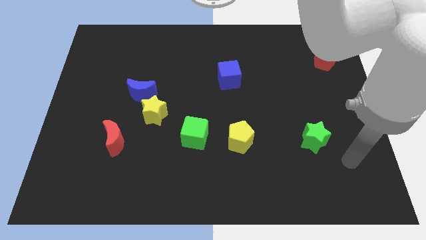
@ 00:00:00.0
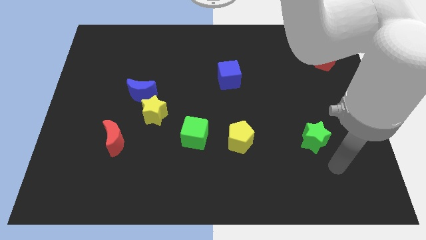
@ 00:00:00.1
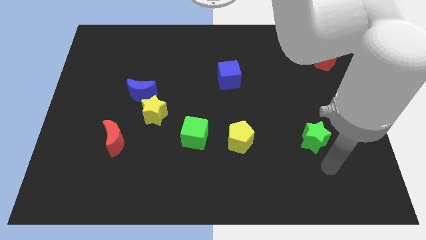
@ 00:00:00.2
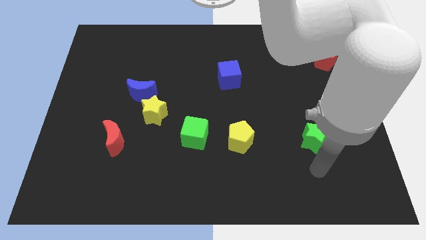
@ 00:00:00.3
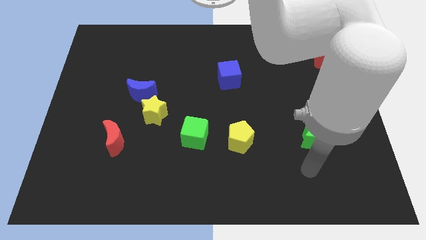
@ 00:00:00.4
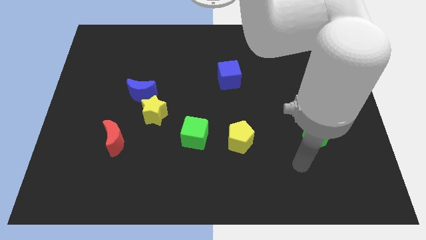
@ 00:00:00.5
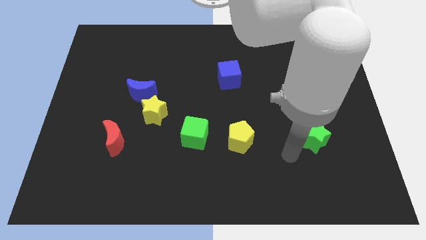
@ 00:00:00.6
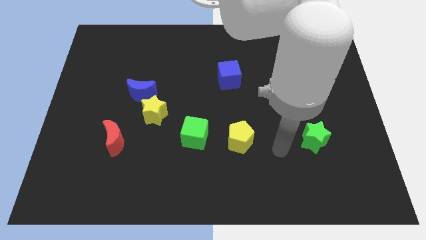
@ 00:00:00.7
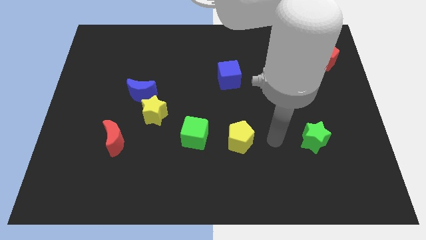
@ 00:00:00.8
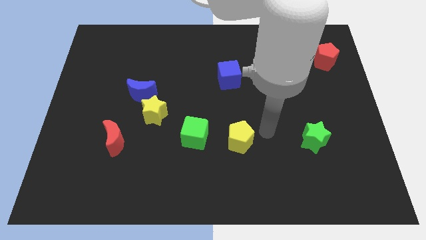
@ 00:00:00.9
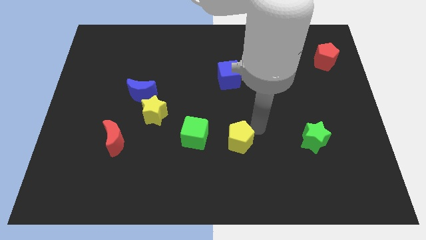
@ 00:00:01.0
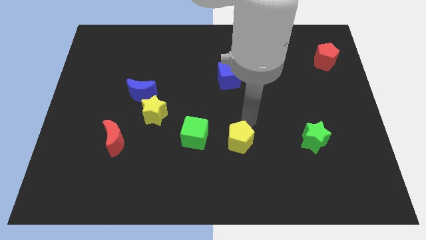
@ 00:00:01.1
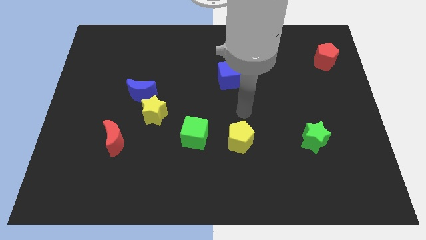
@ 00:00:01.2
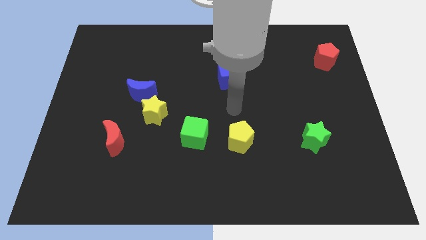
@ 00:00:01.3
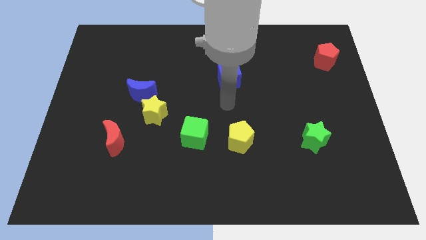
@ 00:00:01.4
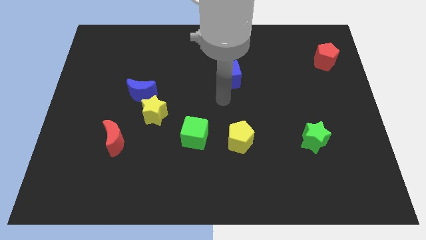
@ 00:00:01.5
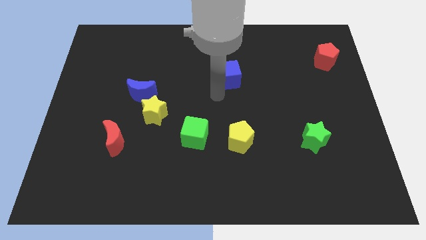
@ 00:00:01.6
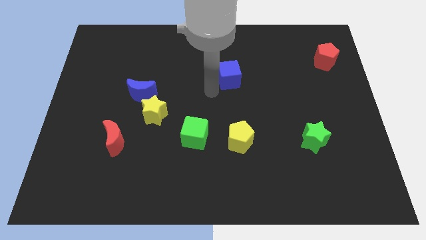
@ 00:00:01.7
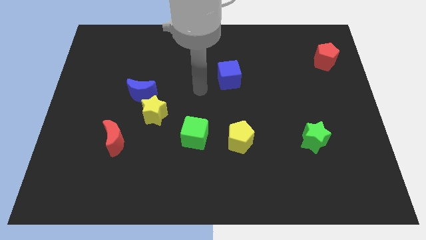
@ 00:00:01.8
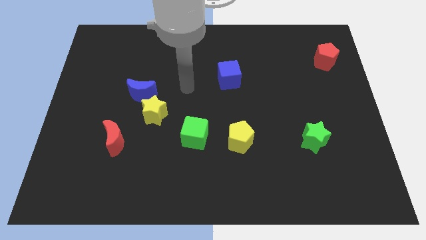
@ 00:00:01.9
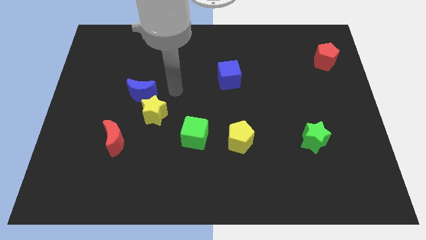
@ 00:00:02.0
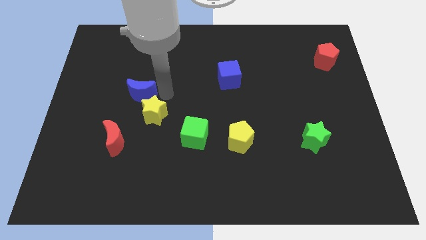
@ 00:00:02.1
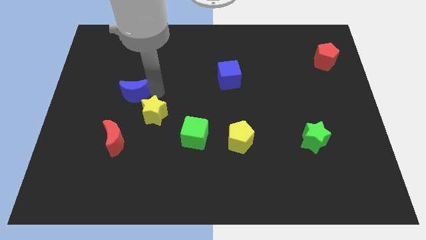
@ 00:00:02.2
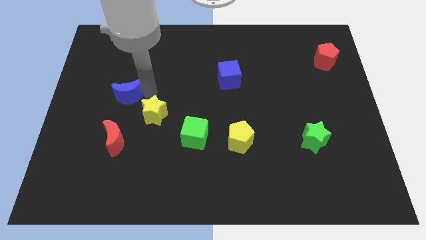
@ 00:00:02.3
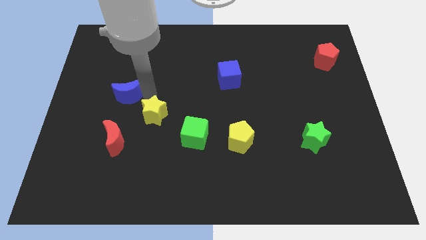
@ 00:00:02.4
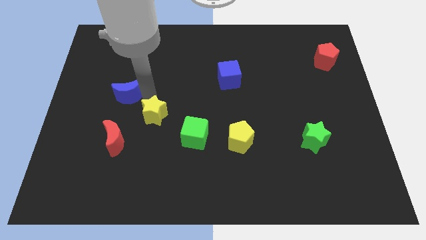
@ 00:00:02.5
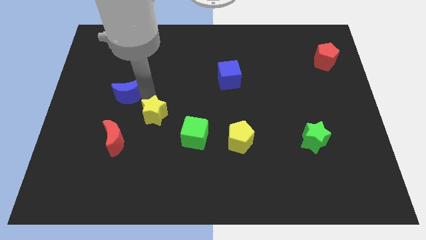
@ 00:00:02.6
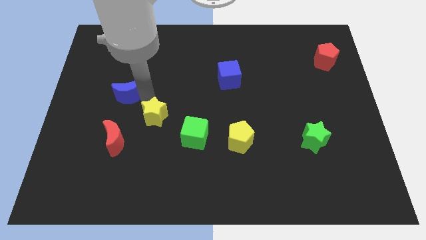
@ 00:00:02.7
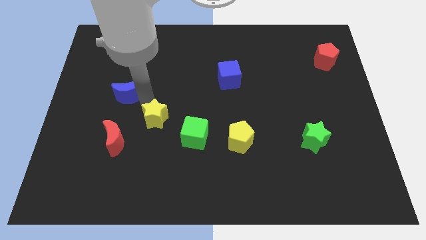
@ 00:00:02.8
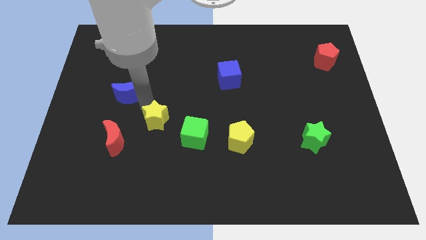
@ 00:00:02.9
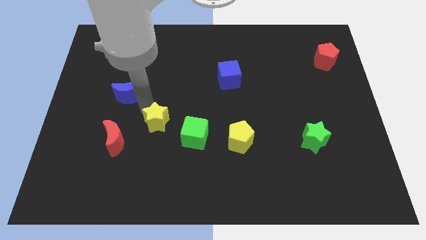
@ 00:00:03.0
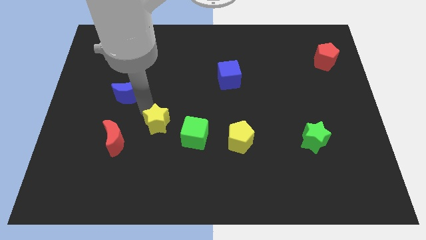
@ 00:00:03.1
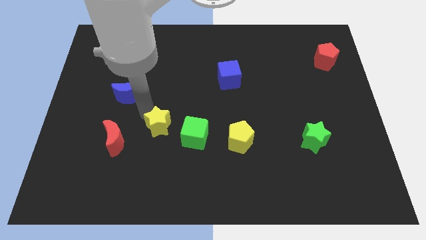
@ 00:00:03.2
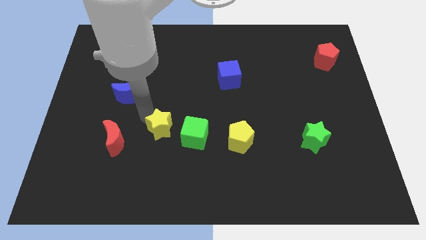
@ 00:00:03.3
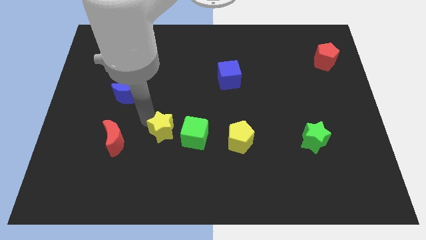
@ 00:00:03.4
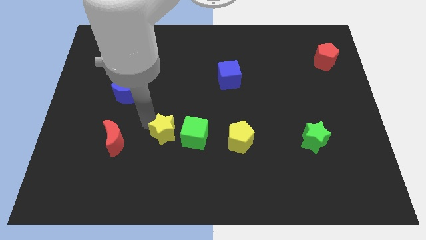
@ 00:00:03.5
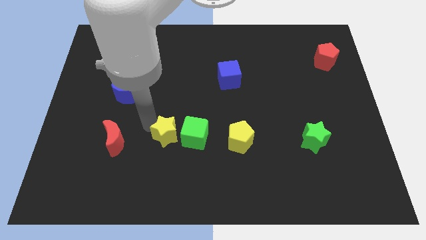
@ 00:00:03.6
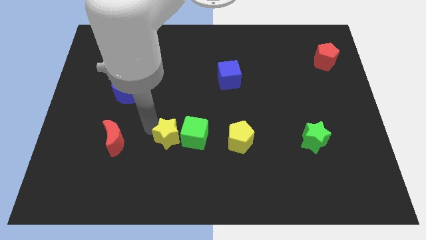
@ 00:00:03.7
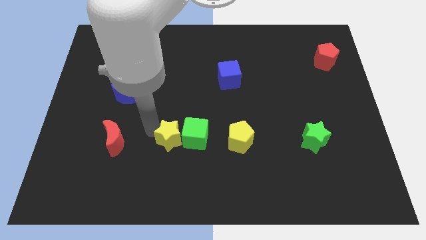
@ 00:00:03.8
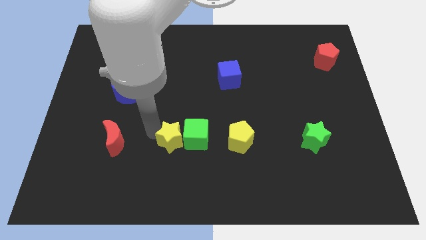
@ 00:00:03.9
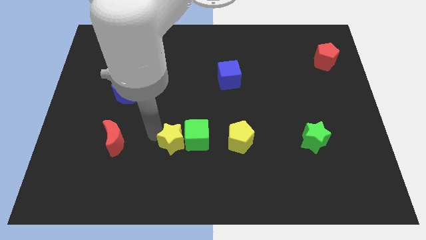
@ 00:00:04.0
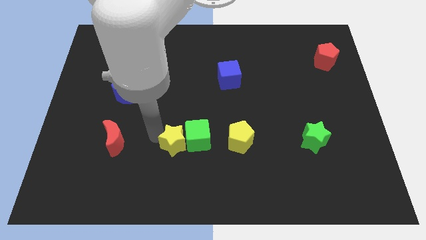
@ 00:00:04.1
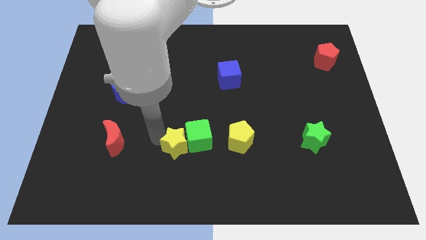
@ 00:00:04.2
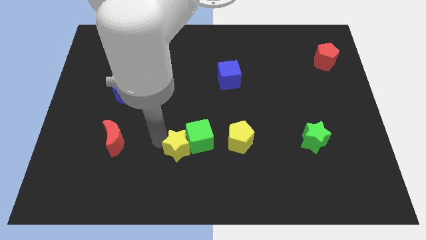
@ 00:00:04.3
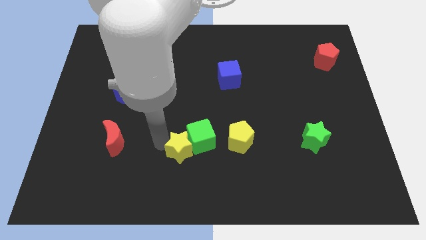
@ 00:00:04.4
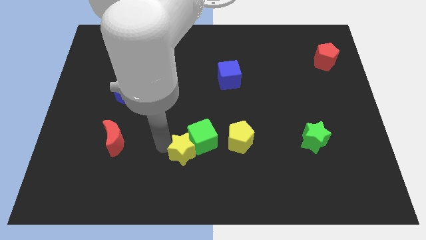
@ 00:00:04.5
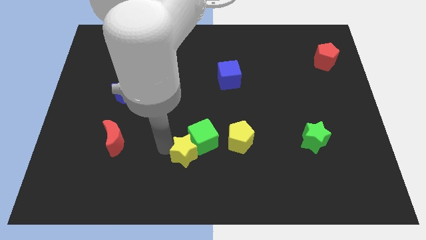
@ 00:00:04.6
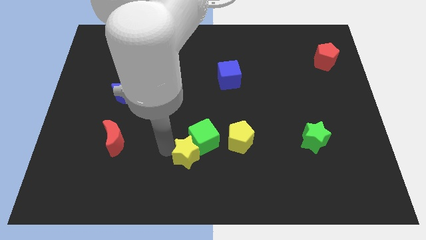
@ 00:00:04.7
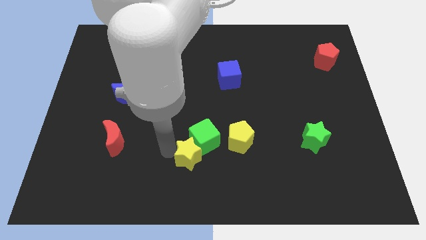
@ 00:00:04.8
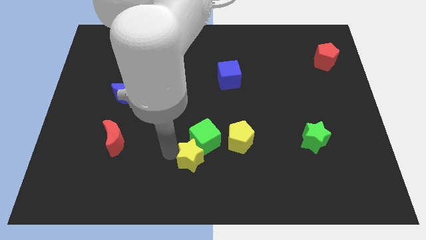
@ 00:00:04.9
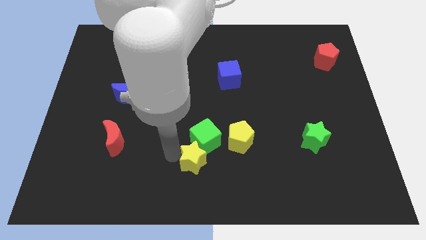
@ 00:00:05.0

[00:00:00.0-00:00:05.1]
slide the yellow star diagonally down and to the left of the yellow pentagon

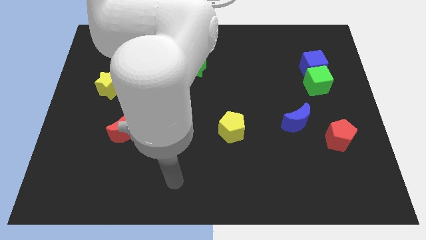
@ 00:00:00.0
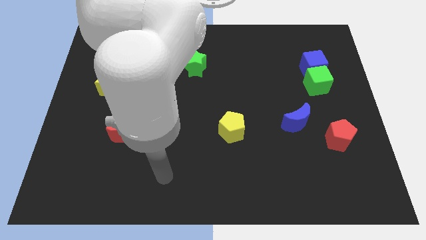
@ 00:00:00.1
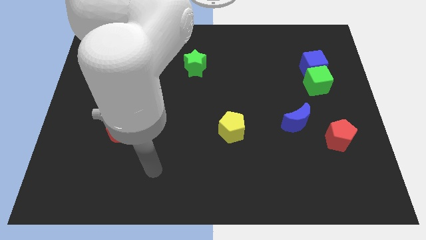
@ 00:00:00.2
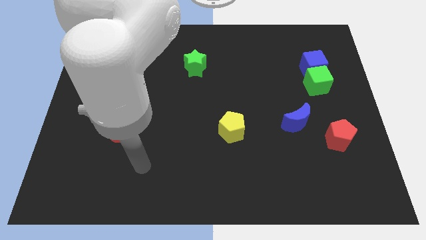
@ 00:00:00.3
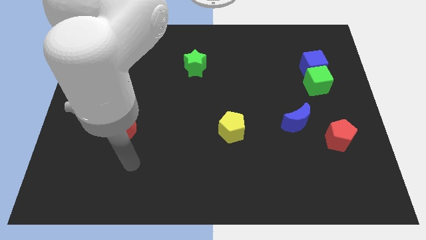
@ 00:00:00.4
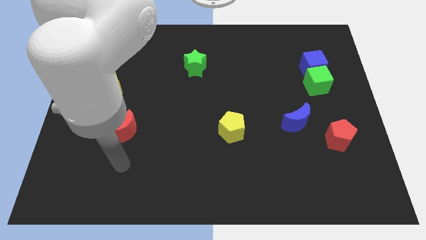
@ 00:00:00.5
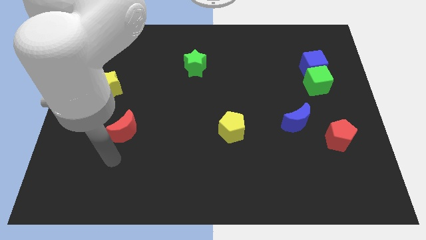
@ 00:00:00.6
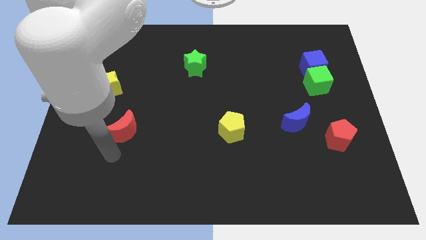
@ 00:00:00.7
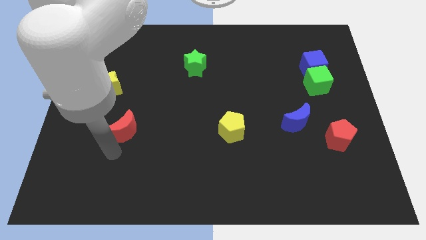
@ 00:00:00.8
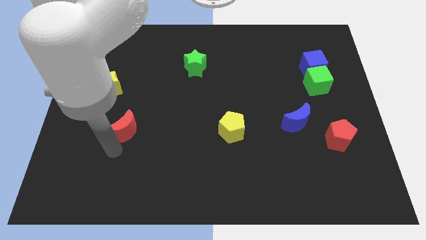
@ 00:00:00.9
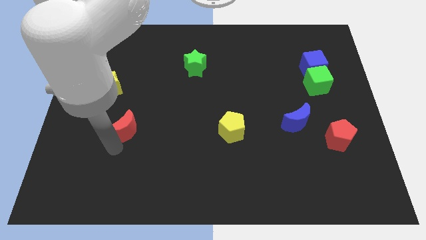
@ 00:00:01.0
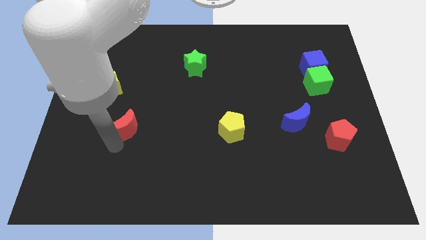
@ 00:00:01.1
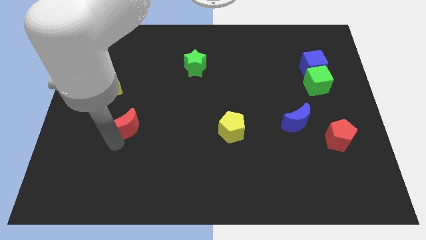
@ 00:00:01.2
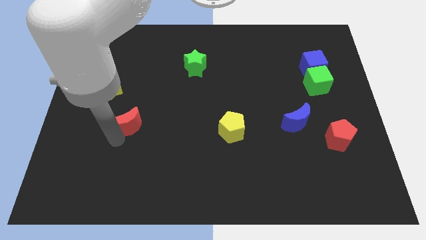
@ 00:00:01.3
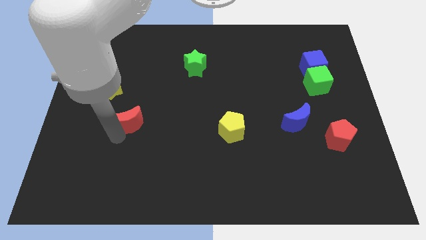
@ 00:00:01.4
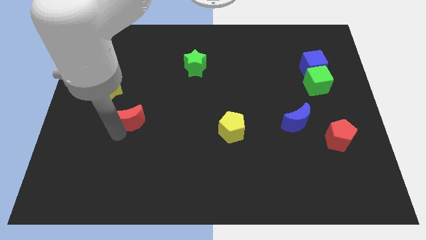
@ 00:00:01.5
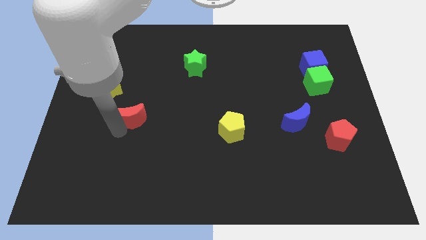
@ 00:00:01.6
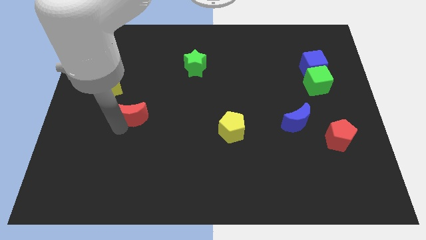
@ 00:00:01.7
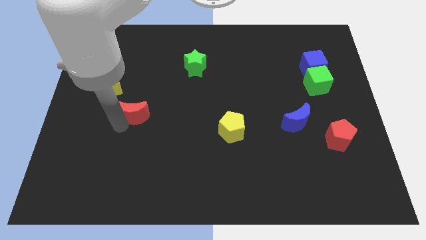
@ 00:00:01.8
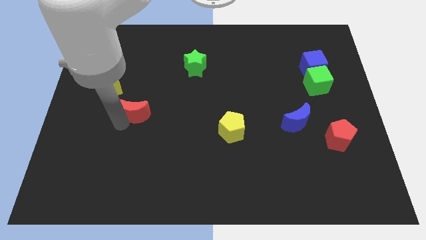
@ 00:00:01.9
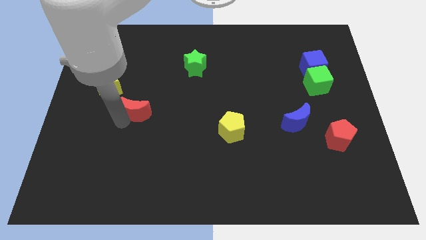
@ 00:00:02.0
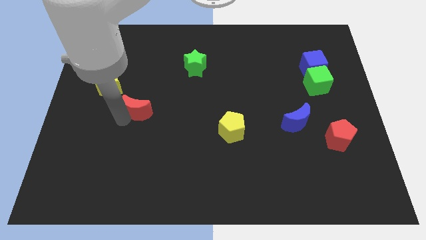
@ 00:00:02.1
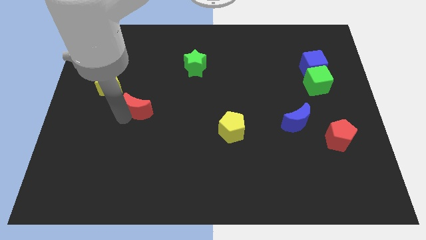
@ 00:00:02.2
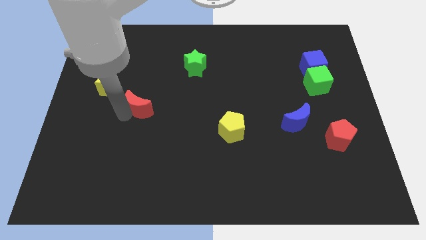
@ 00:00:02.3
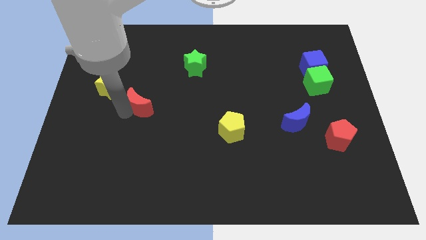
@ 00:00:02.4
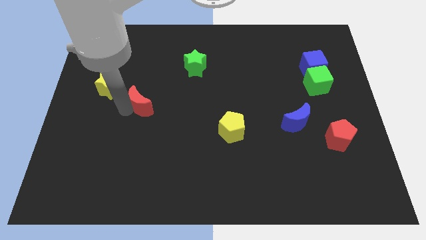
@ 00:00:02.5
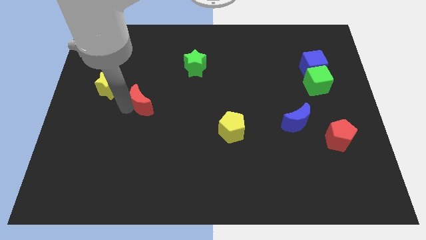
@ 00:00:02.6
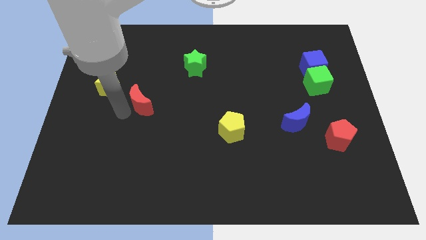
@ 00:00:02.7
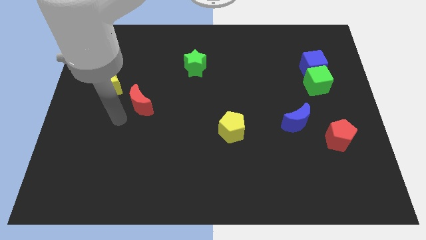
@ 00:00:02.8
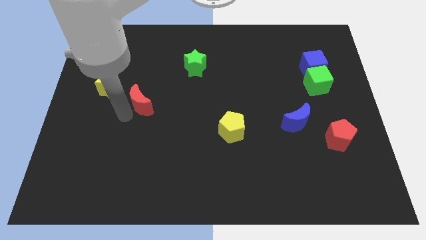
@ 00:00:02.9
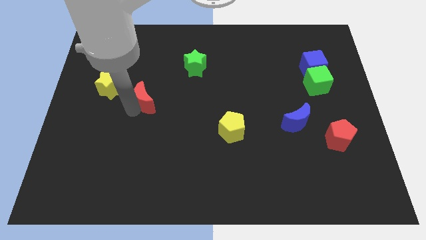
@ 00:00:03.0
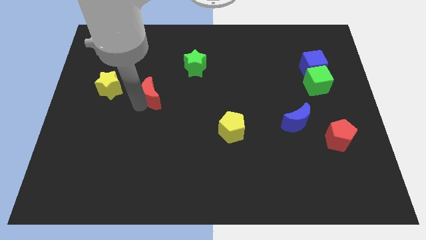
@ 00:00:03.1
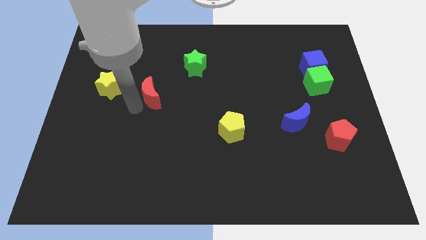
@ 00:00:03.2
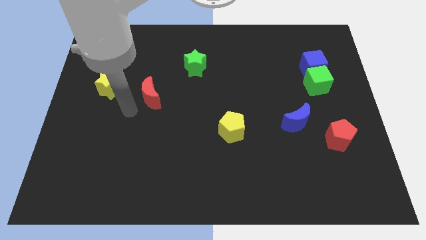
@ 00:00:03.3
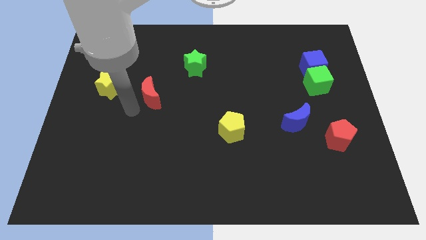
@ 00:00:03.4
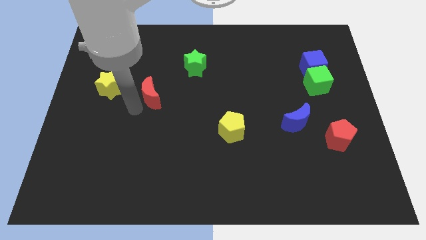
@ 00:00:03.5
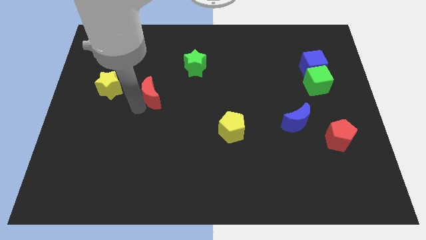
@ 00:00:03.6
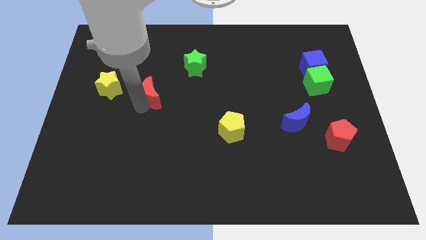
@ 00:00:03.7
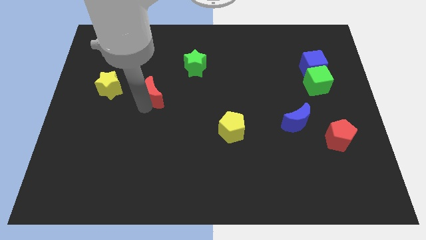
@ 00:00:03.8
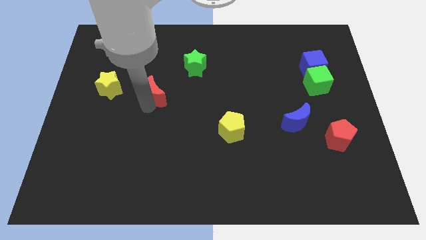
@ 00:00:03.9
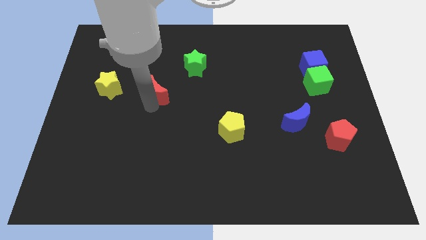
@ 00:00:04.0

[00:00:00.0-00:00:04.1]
move the red moon to the bottom left side of the green star
